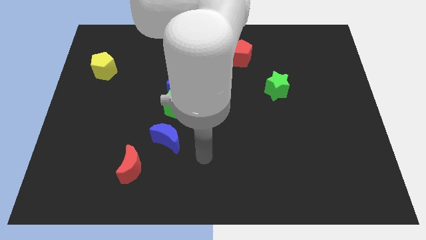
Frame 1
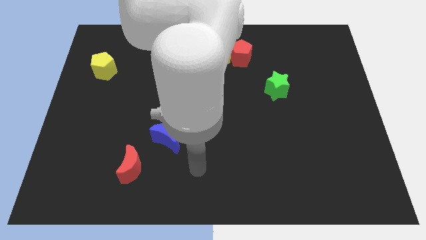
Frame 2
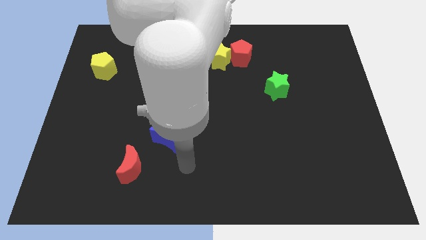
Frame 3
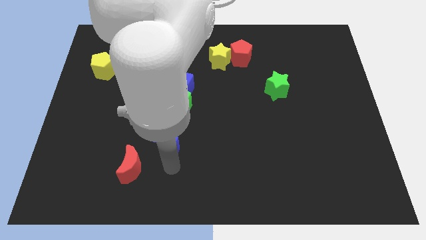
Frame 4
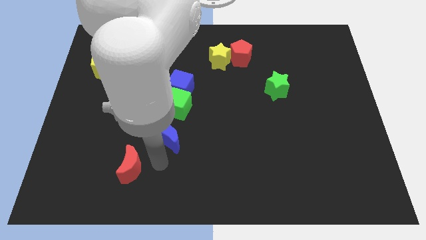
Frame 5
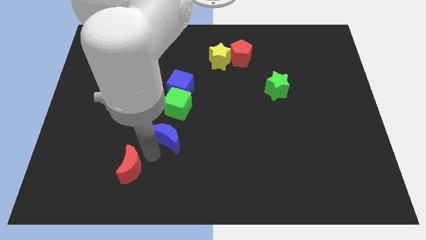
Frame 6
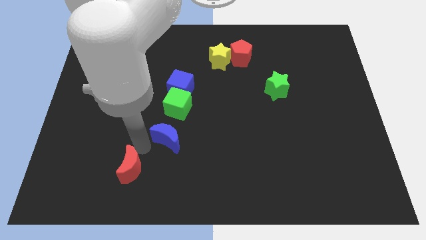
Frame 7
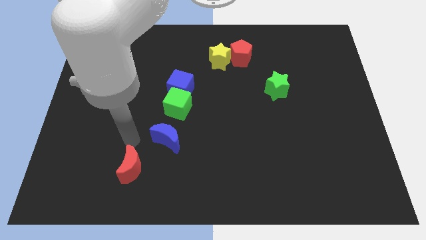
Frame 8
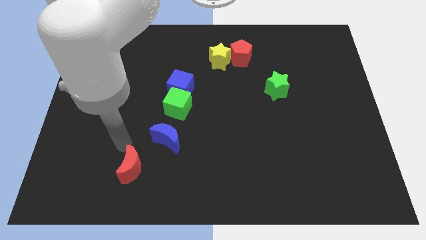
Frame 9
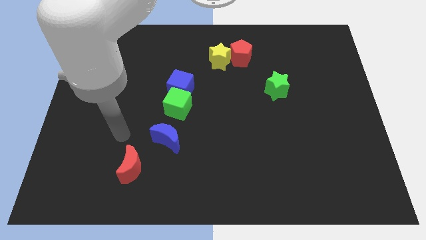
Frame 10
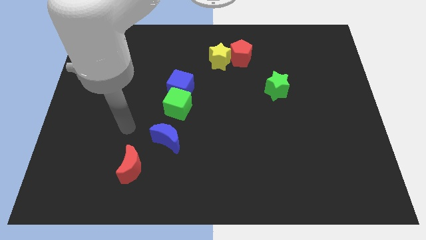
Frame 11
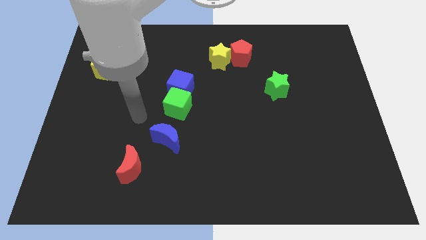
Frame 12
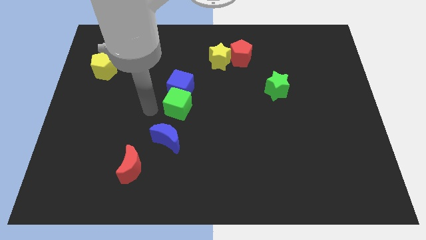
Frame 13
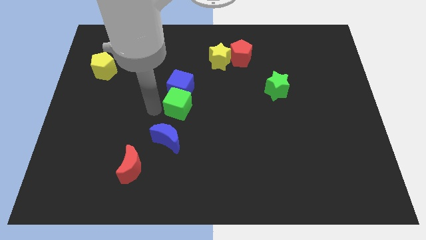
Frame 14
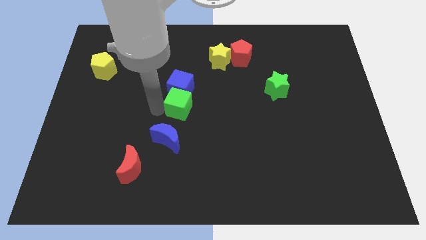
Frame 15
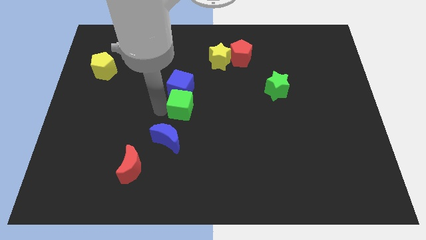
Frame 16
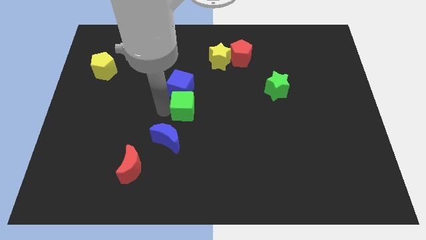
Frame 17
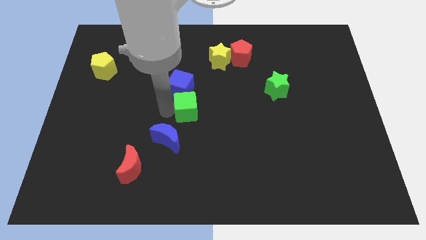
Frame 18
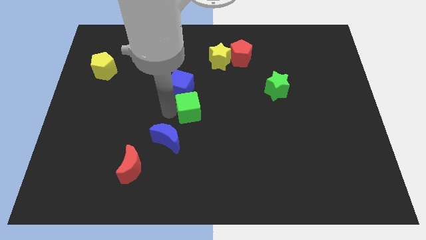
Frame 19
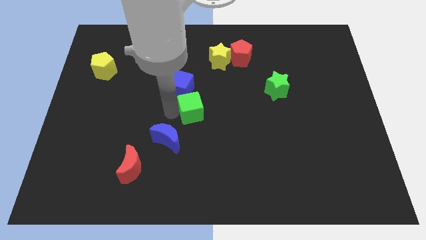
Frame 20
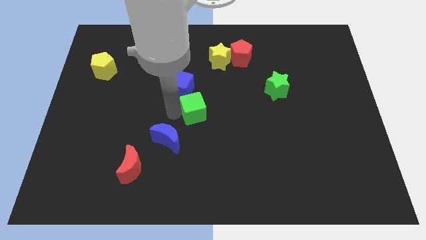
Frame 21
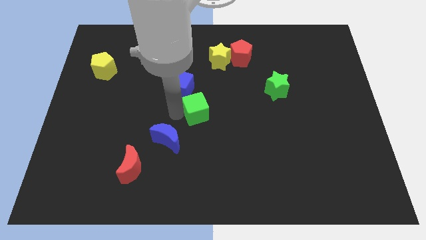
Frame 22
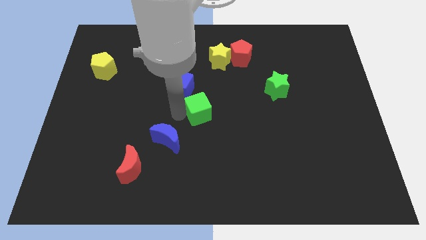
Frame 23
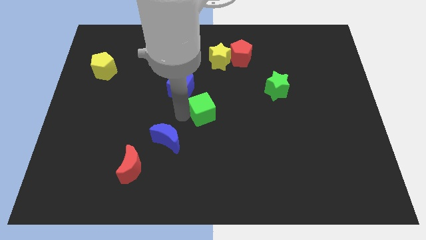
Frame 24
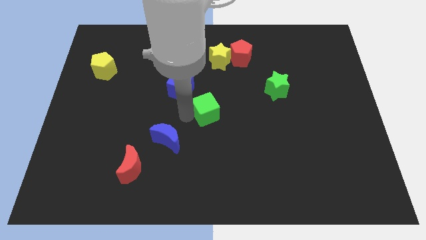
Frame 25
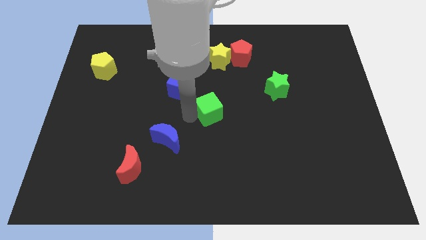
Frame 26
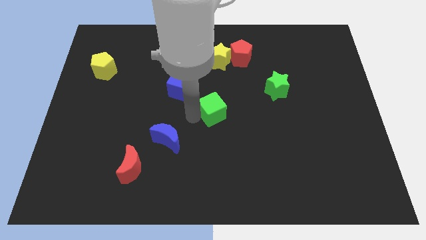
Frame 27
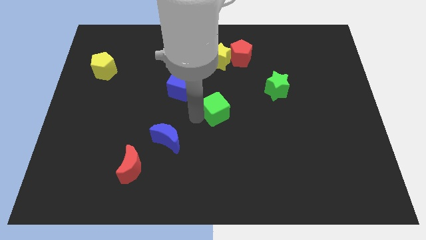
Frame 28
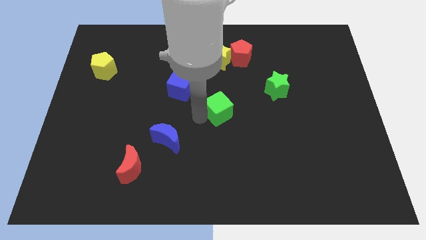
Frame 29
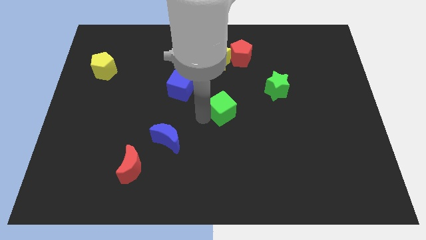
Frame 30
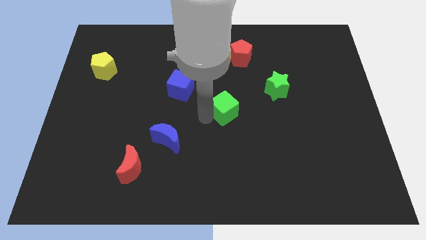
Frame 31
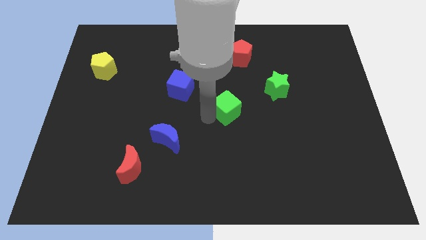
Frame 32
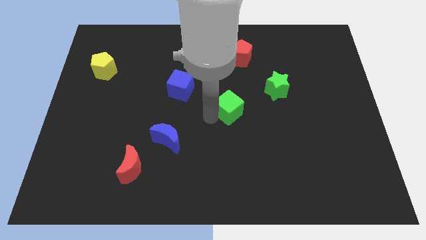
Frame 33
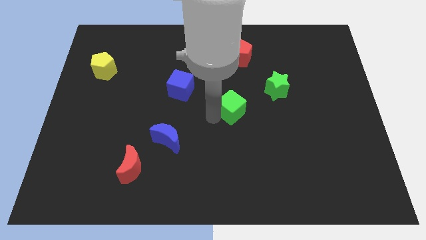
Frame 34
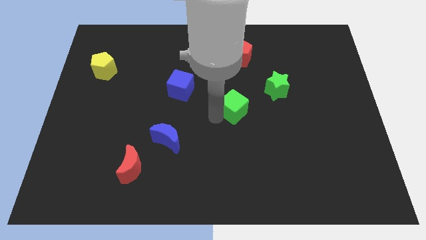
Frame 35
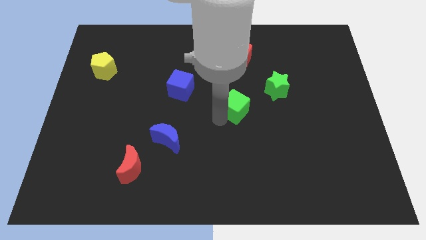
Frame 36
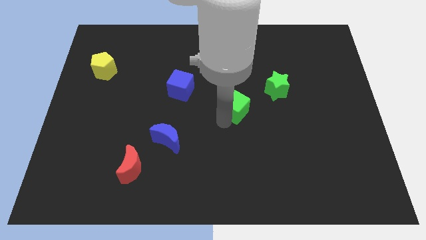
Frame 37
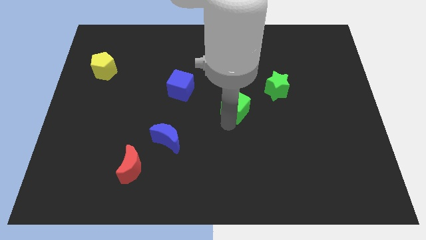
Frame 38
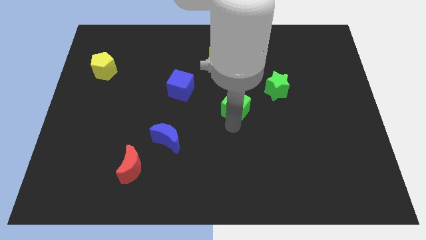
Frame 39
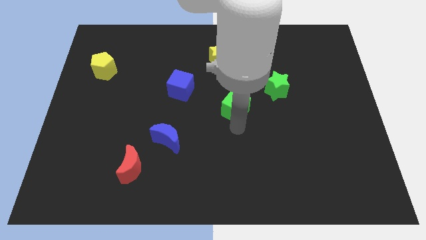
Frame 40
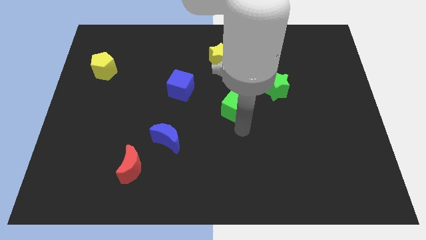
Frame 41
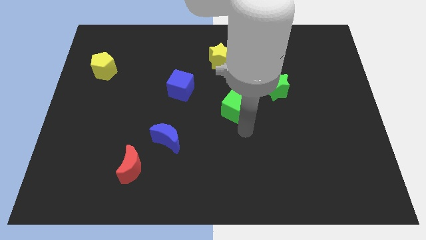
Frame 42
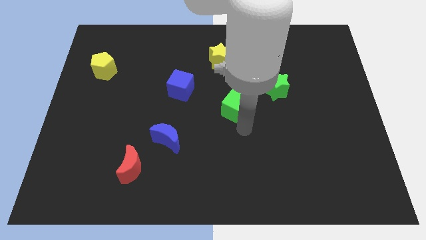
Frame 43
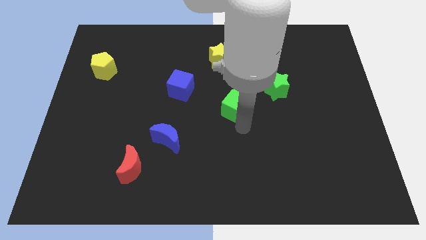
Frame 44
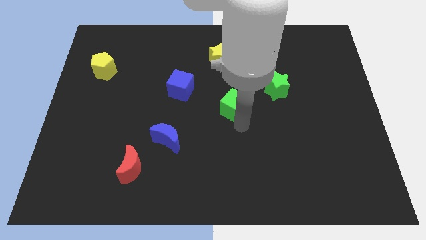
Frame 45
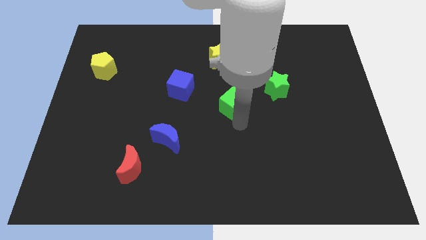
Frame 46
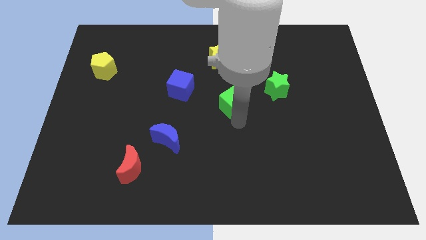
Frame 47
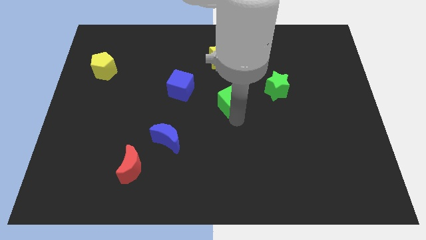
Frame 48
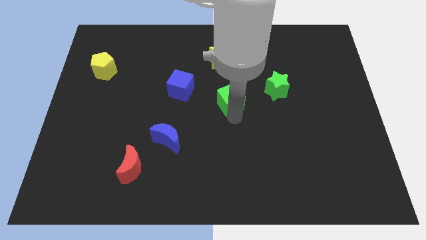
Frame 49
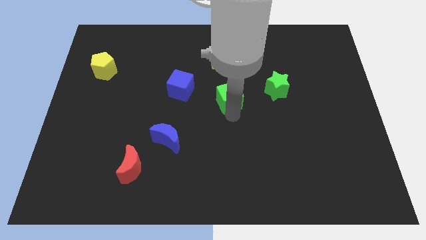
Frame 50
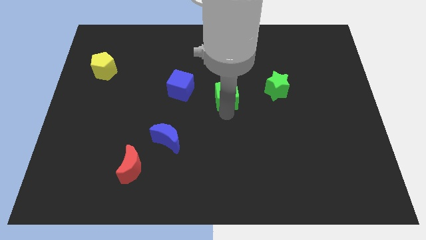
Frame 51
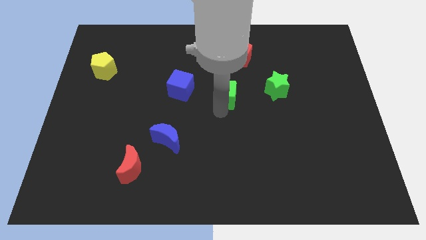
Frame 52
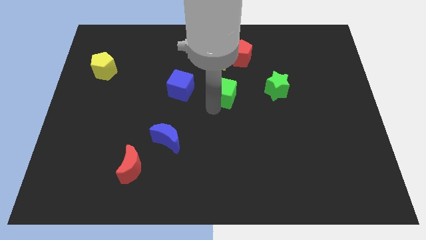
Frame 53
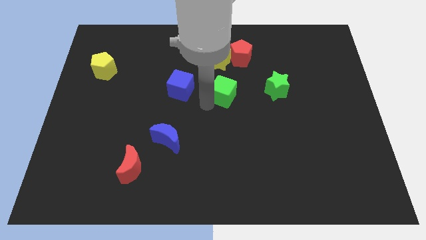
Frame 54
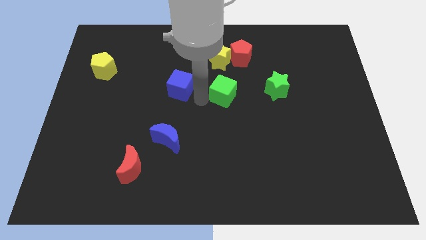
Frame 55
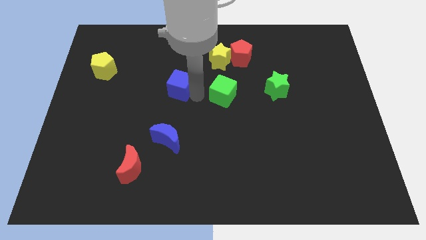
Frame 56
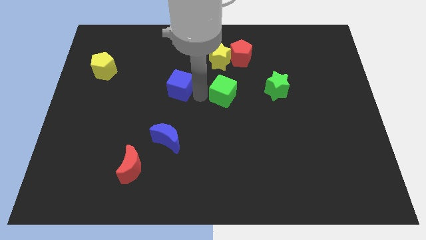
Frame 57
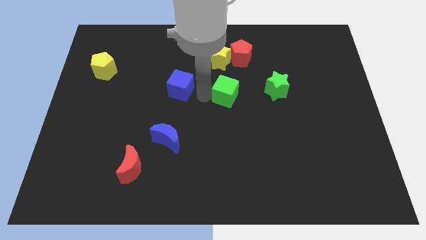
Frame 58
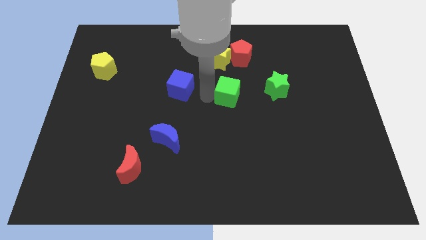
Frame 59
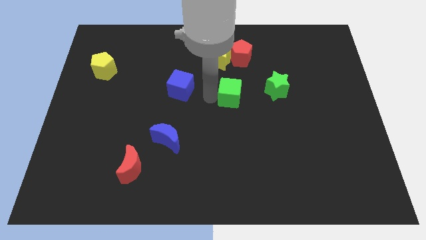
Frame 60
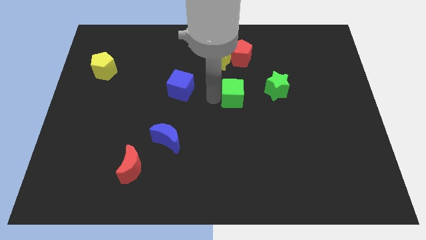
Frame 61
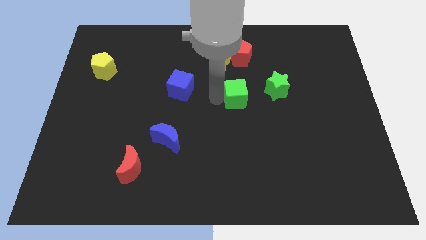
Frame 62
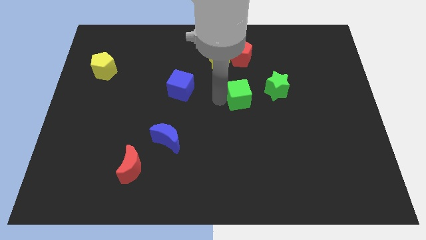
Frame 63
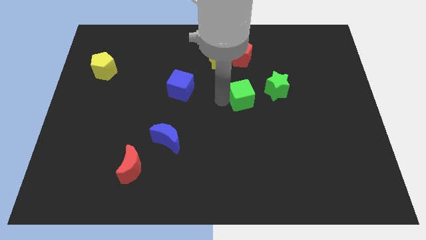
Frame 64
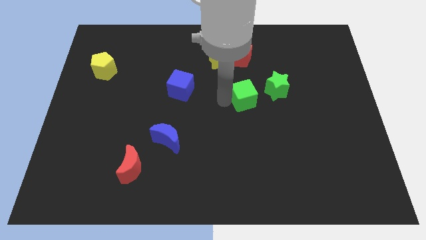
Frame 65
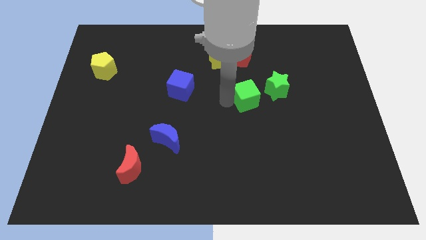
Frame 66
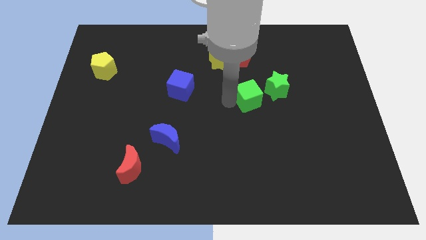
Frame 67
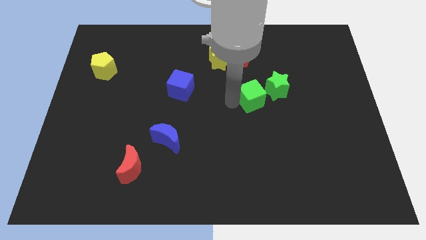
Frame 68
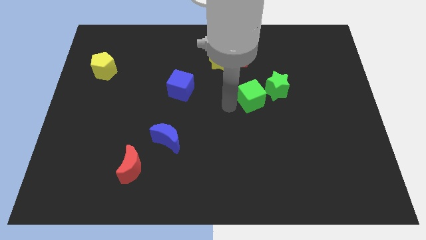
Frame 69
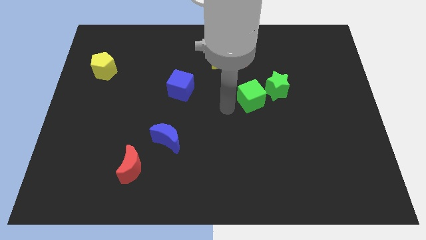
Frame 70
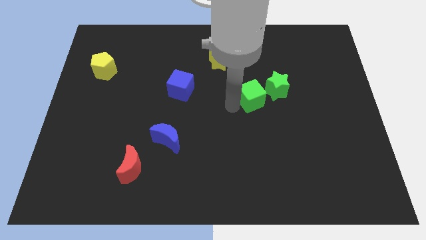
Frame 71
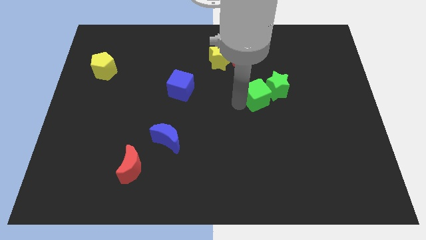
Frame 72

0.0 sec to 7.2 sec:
put the green cube close to the green star

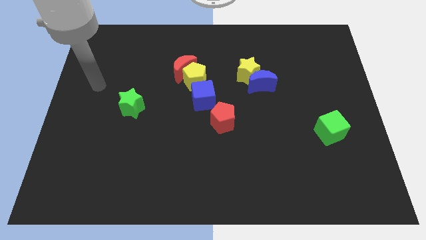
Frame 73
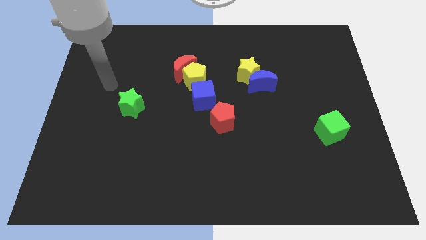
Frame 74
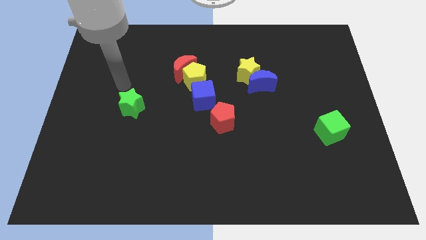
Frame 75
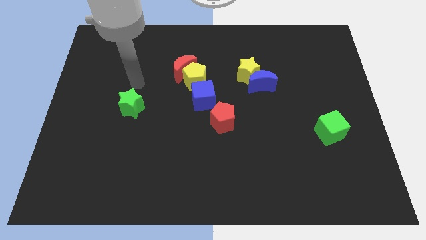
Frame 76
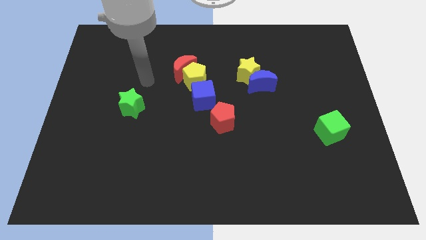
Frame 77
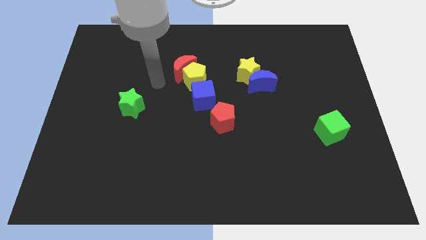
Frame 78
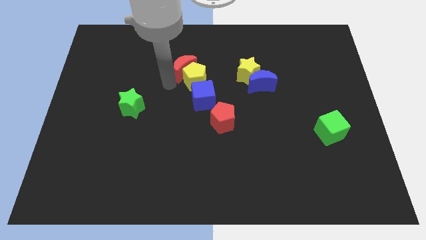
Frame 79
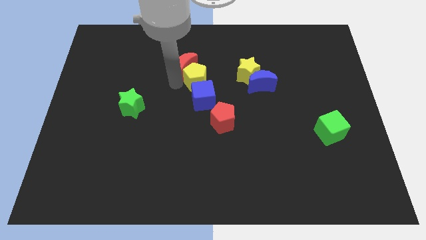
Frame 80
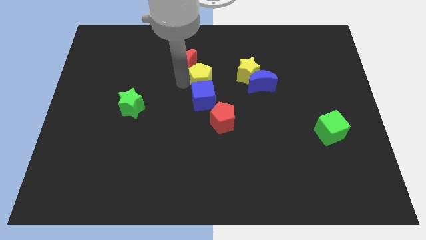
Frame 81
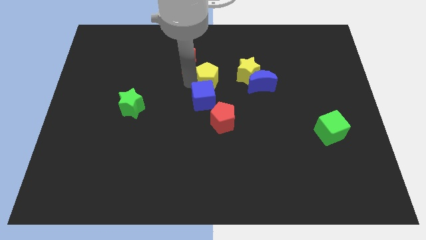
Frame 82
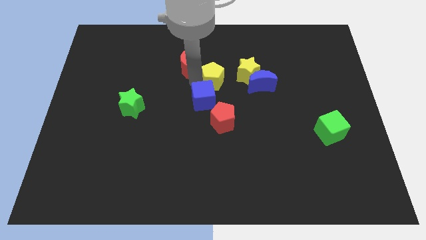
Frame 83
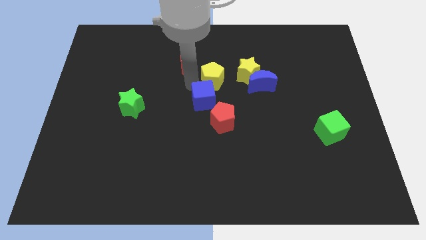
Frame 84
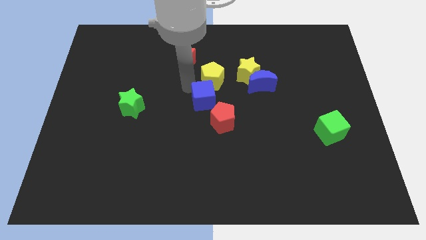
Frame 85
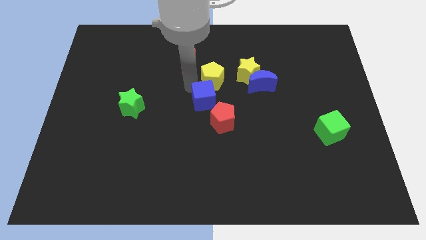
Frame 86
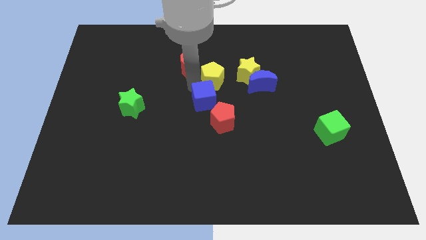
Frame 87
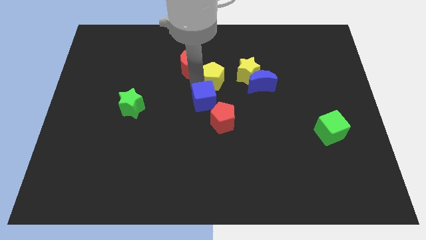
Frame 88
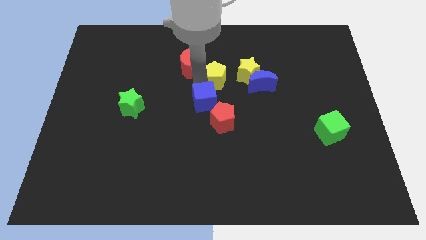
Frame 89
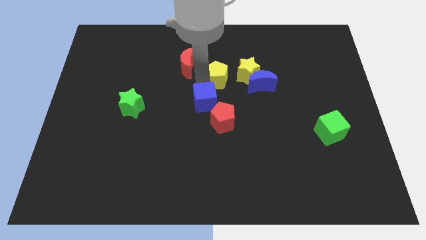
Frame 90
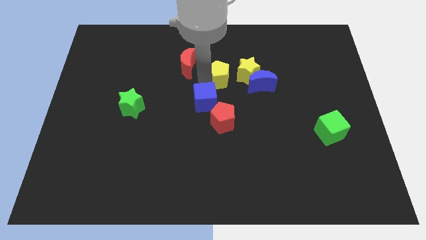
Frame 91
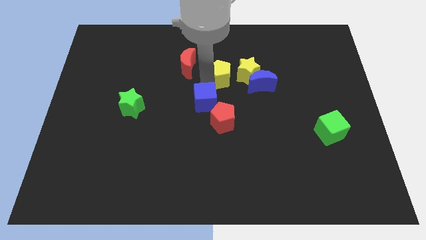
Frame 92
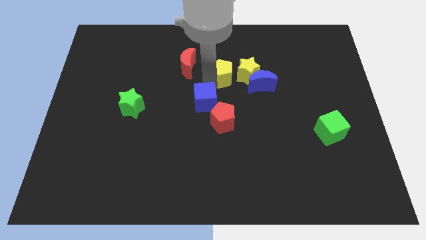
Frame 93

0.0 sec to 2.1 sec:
put the yellow pentagon next to the yellow star
